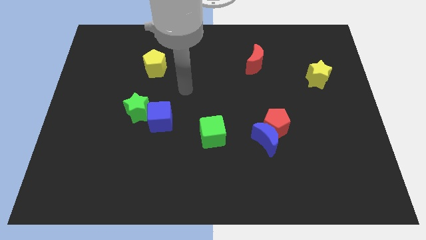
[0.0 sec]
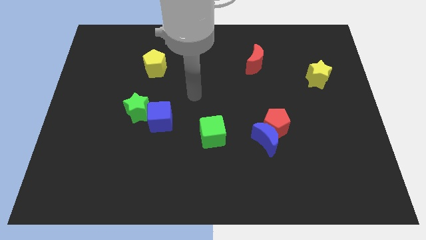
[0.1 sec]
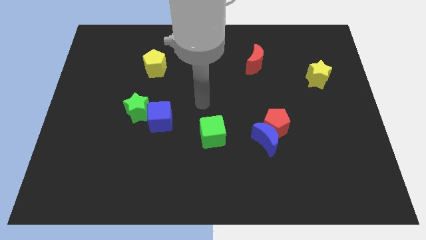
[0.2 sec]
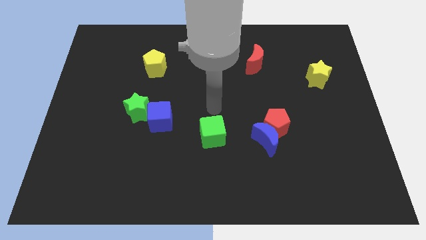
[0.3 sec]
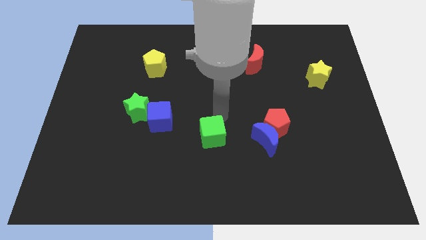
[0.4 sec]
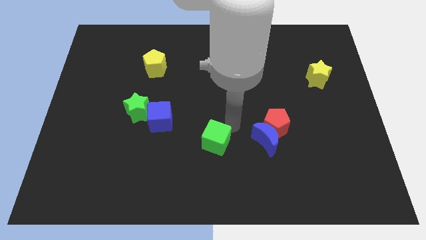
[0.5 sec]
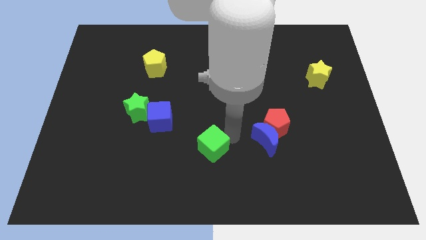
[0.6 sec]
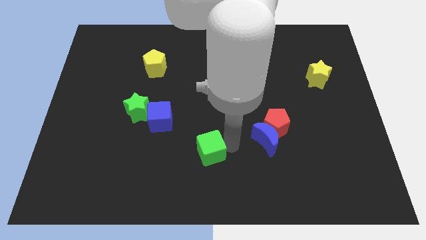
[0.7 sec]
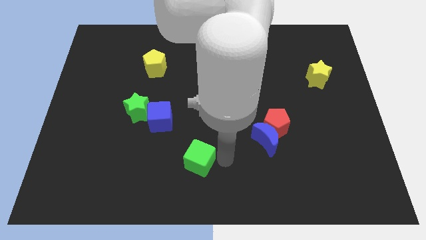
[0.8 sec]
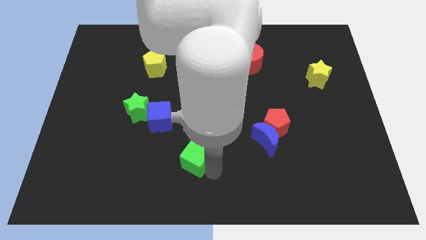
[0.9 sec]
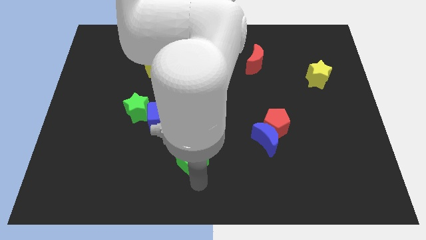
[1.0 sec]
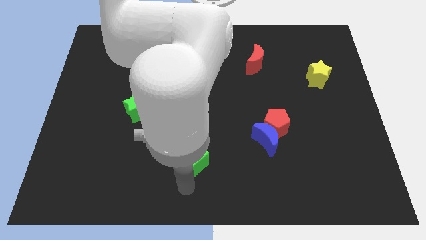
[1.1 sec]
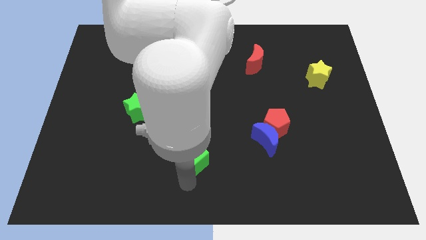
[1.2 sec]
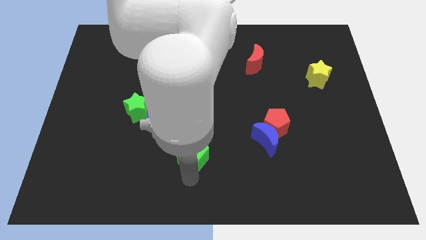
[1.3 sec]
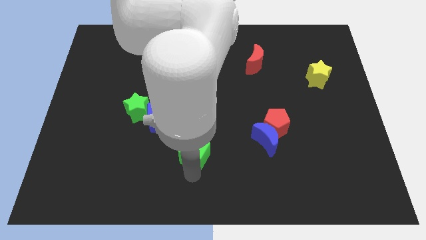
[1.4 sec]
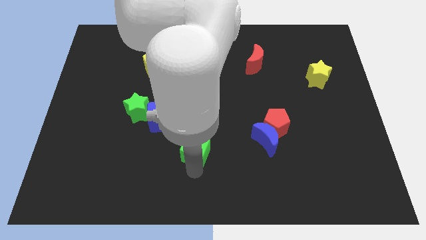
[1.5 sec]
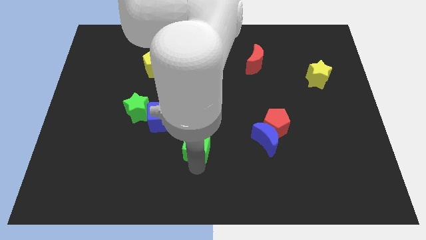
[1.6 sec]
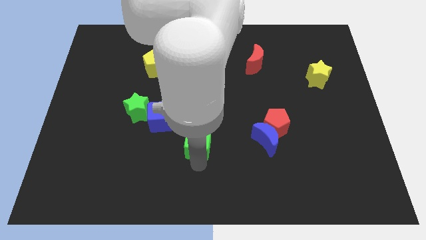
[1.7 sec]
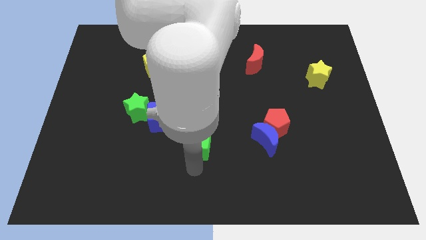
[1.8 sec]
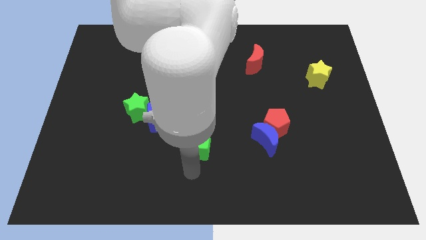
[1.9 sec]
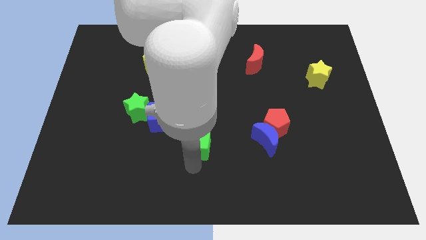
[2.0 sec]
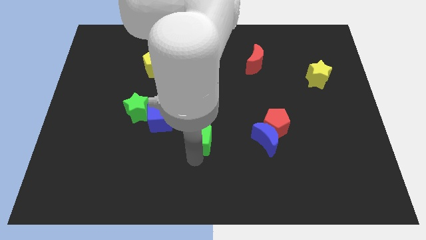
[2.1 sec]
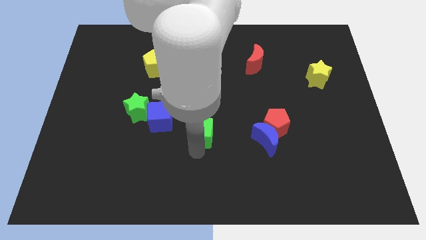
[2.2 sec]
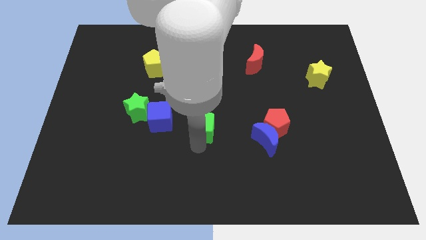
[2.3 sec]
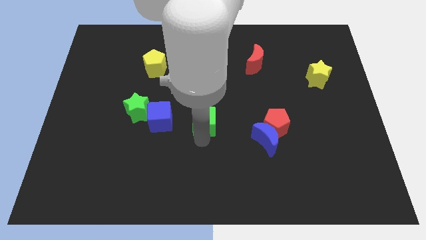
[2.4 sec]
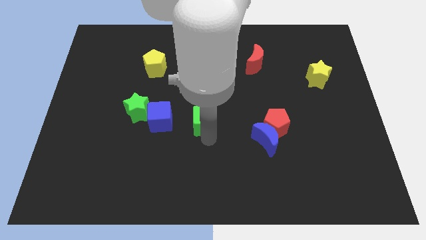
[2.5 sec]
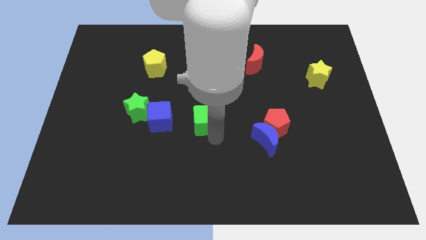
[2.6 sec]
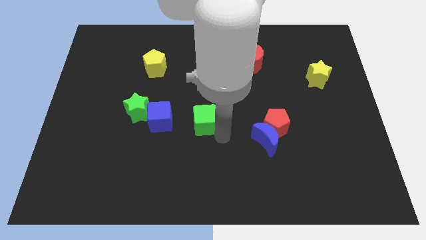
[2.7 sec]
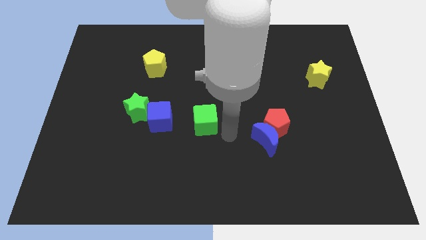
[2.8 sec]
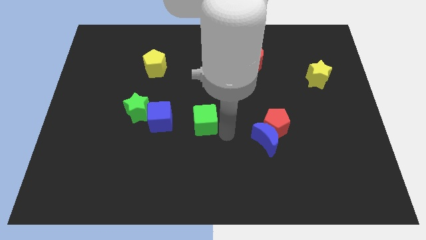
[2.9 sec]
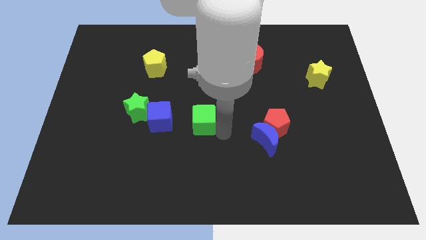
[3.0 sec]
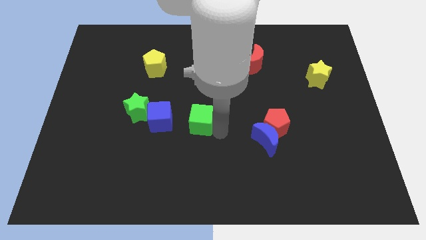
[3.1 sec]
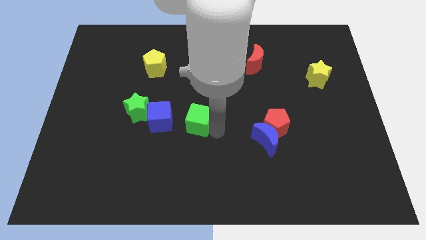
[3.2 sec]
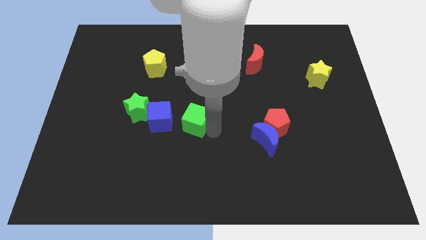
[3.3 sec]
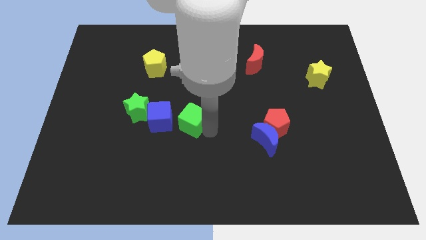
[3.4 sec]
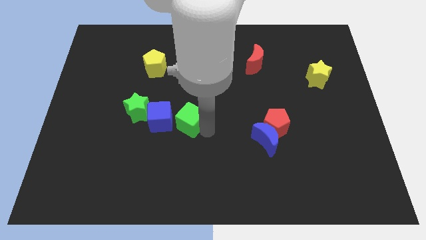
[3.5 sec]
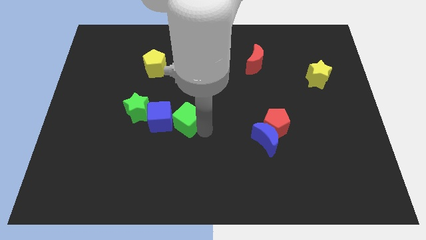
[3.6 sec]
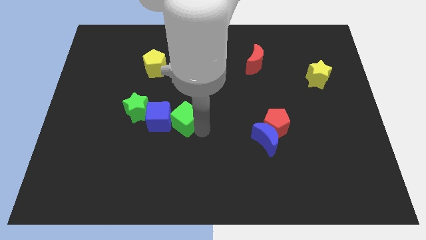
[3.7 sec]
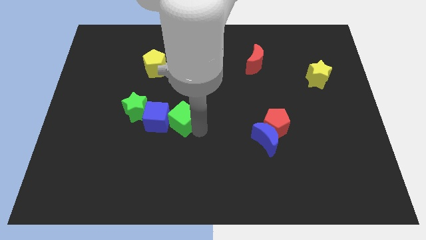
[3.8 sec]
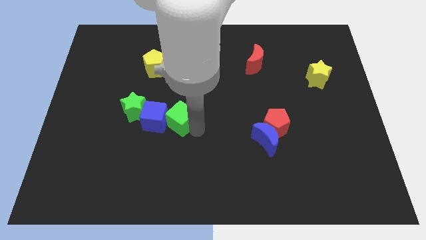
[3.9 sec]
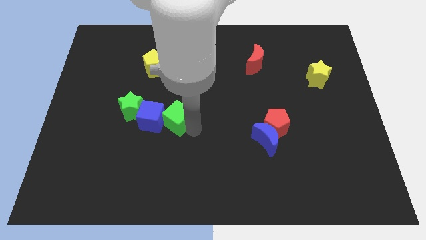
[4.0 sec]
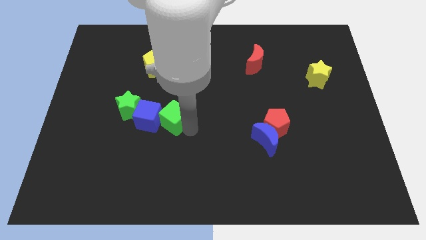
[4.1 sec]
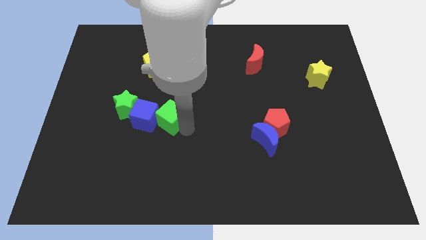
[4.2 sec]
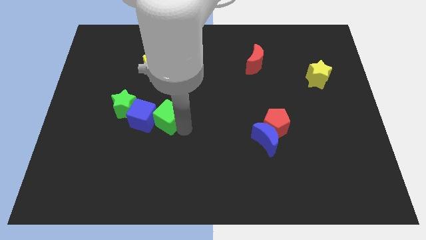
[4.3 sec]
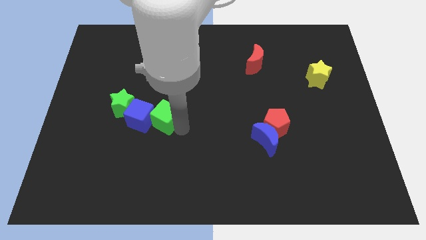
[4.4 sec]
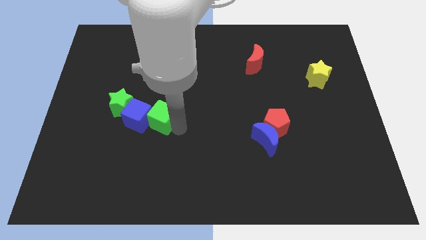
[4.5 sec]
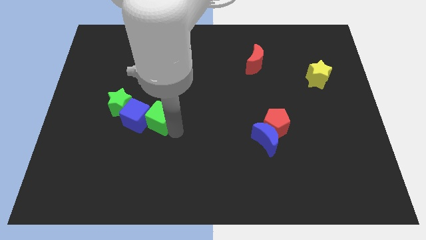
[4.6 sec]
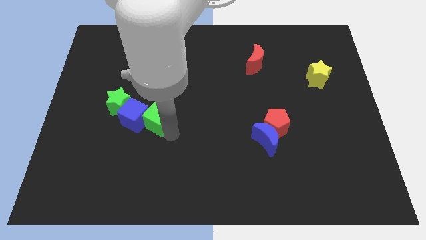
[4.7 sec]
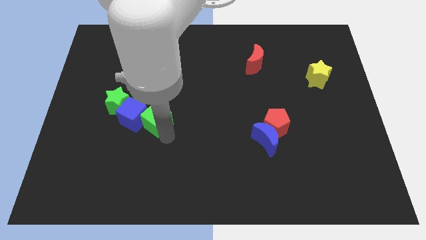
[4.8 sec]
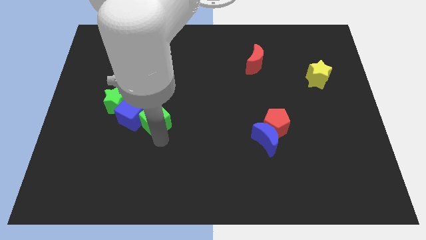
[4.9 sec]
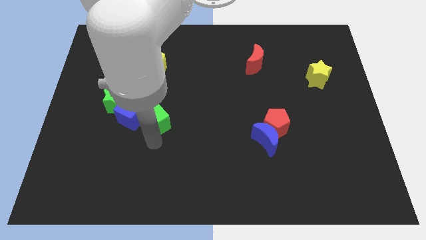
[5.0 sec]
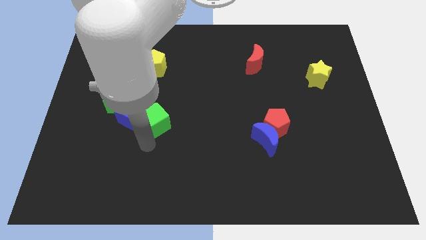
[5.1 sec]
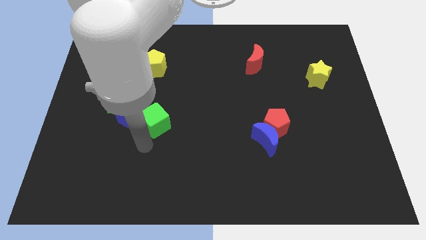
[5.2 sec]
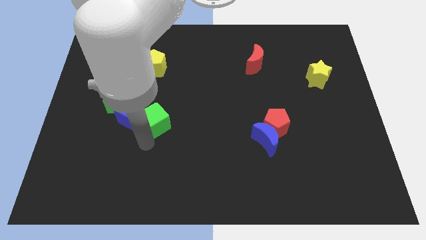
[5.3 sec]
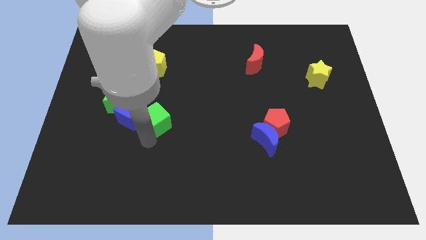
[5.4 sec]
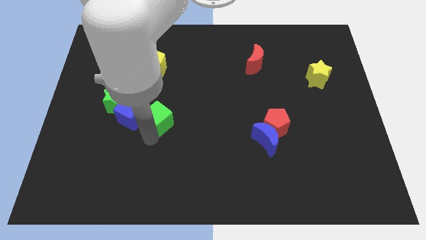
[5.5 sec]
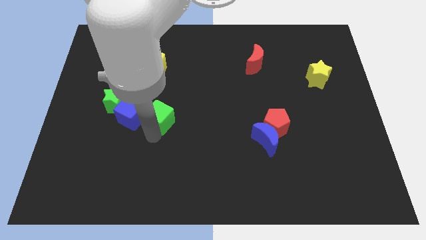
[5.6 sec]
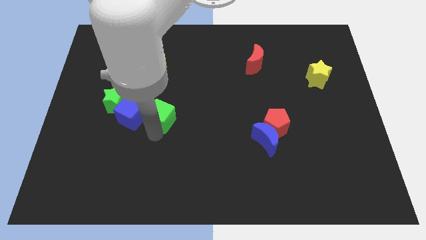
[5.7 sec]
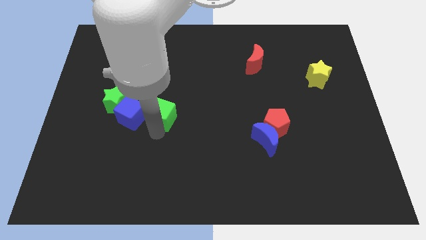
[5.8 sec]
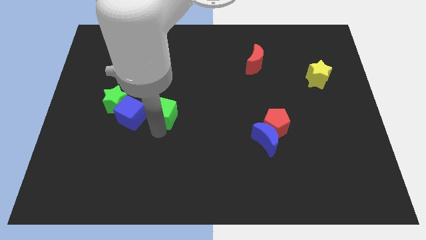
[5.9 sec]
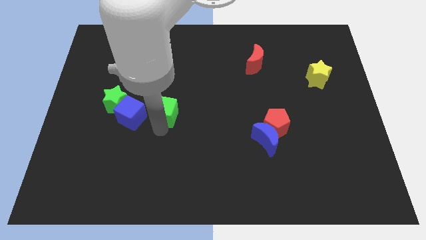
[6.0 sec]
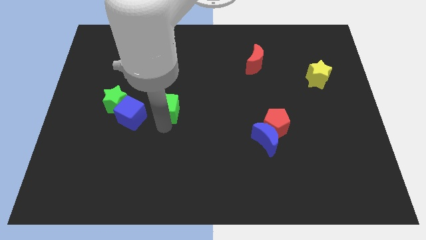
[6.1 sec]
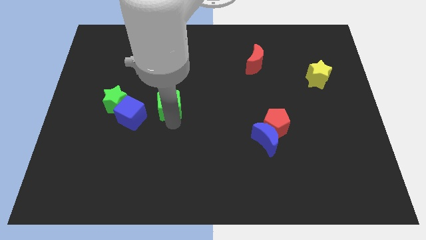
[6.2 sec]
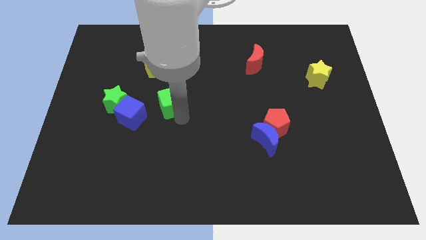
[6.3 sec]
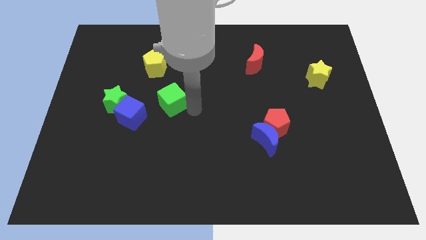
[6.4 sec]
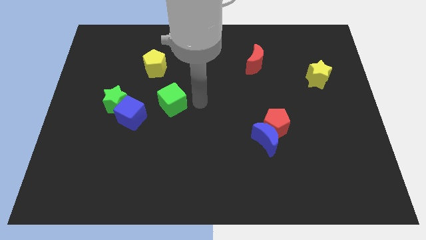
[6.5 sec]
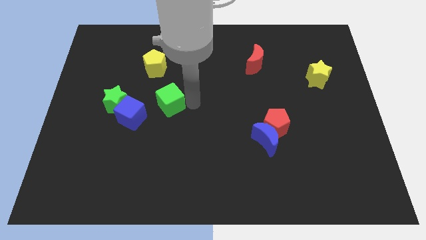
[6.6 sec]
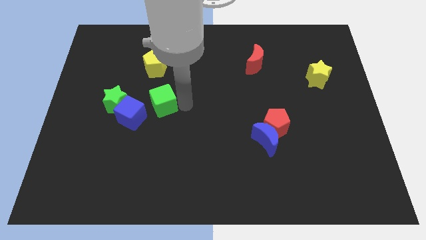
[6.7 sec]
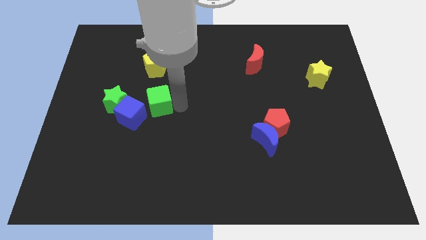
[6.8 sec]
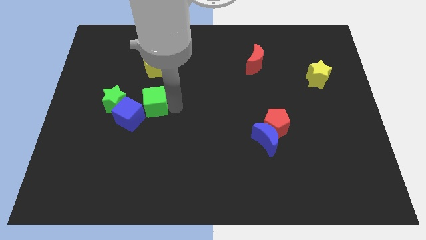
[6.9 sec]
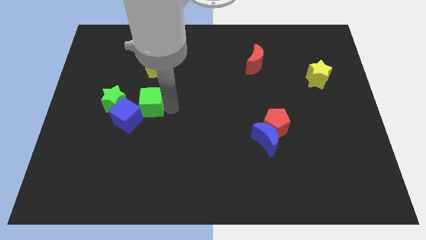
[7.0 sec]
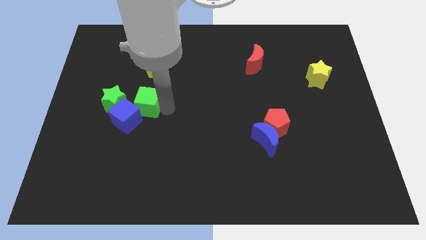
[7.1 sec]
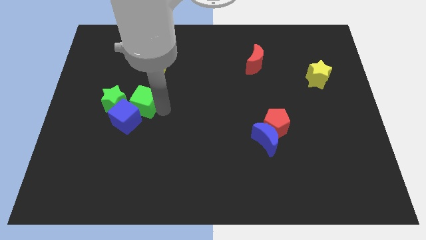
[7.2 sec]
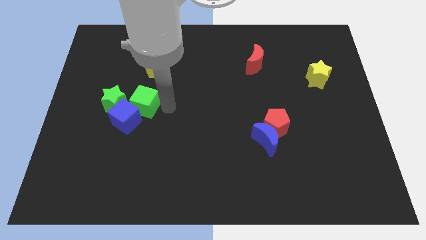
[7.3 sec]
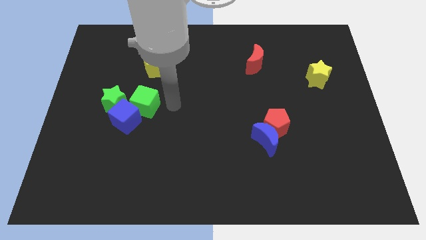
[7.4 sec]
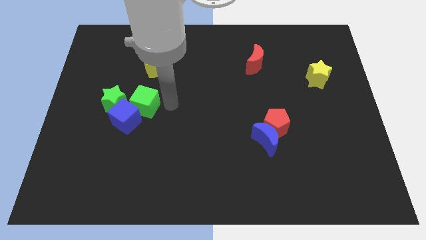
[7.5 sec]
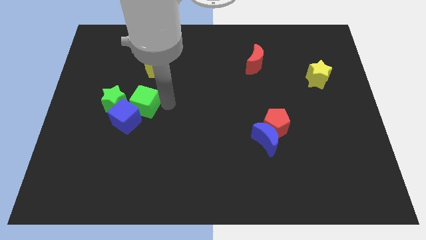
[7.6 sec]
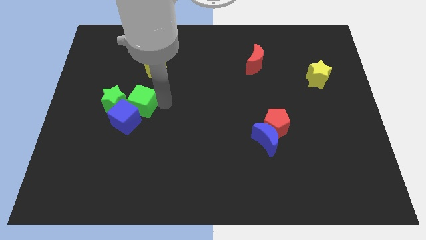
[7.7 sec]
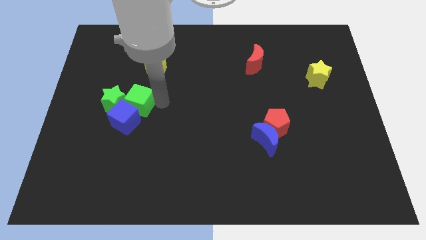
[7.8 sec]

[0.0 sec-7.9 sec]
push the green cube towards the green star
